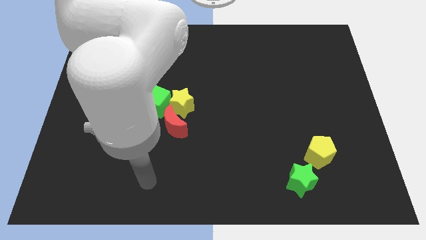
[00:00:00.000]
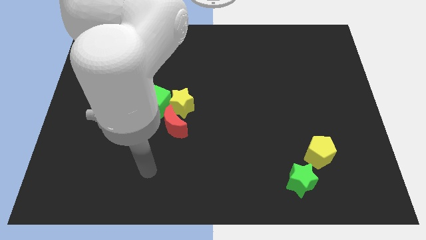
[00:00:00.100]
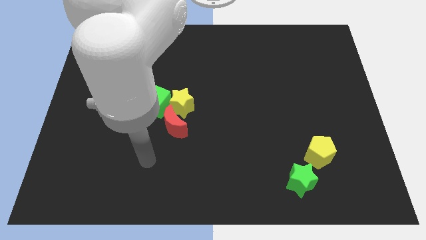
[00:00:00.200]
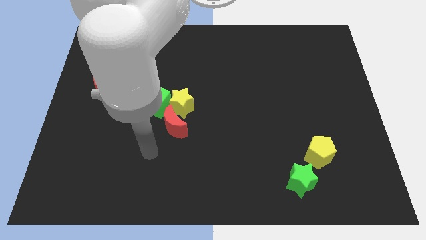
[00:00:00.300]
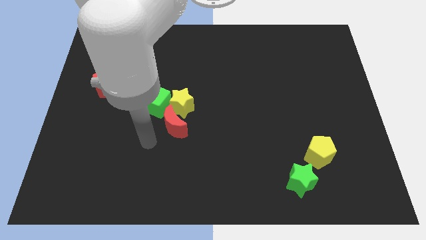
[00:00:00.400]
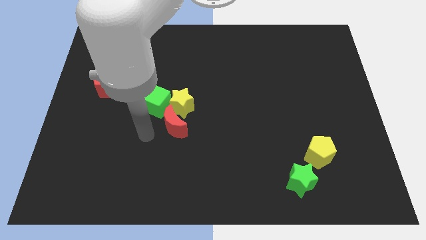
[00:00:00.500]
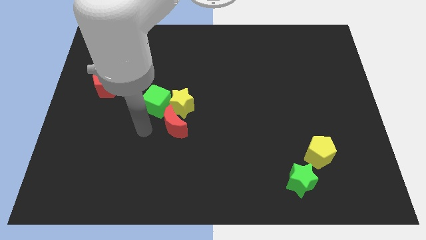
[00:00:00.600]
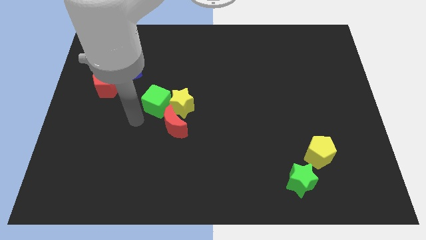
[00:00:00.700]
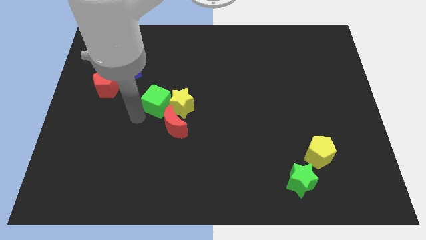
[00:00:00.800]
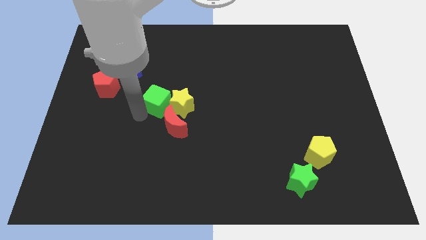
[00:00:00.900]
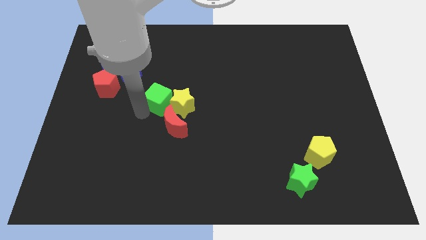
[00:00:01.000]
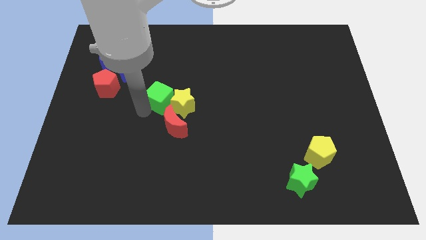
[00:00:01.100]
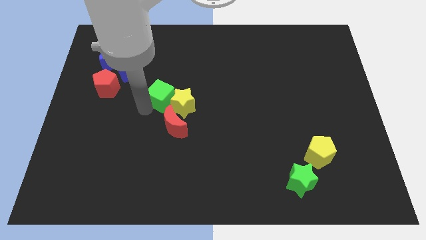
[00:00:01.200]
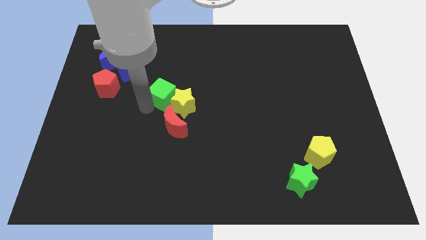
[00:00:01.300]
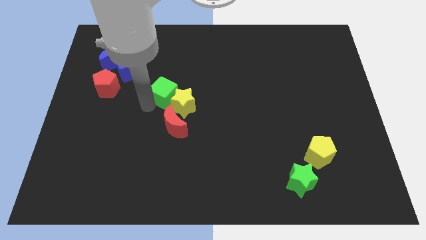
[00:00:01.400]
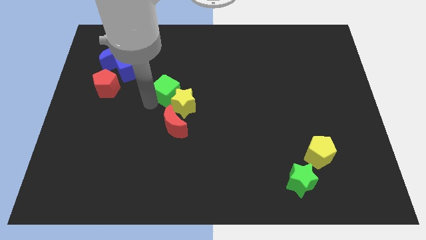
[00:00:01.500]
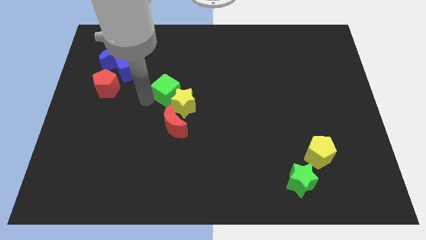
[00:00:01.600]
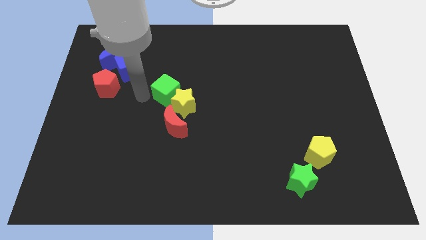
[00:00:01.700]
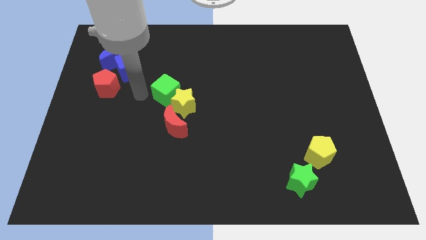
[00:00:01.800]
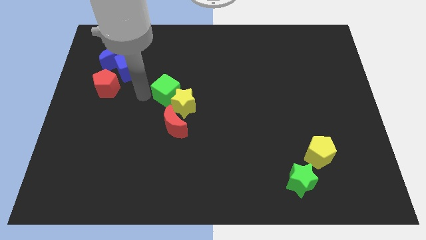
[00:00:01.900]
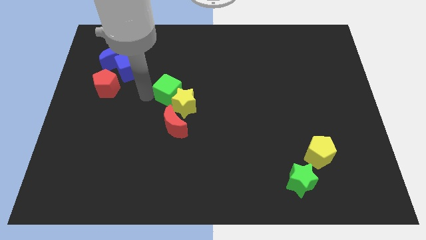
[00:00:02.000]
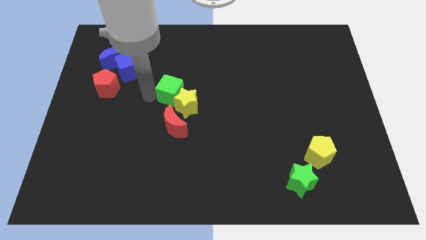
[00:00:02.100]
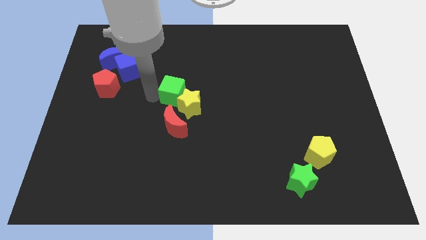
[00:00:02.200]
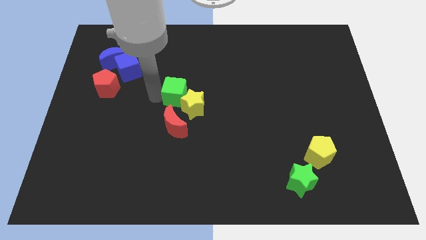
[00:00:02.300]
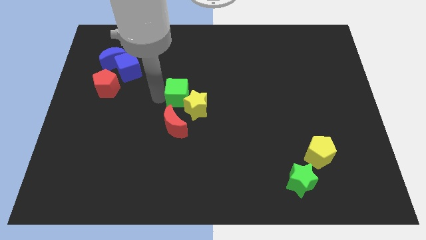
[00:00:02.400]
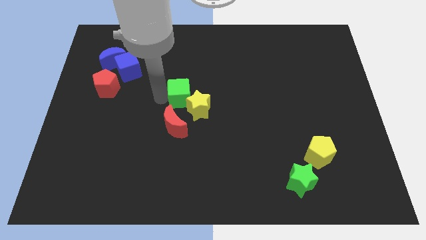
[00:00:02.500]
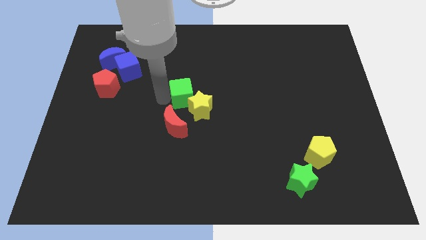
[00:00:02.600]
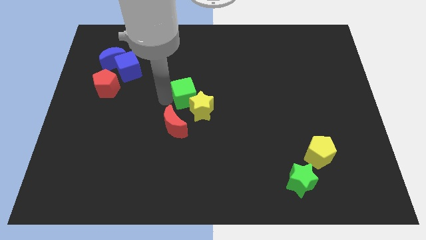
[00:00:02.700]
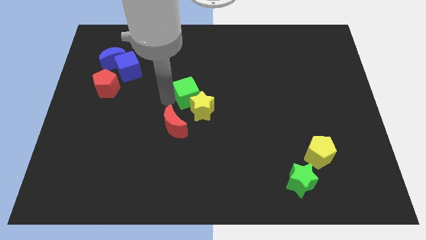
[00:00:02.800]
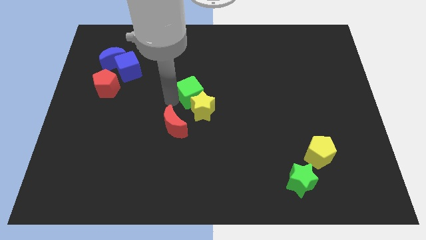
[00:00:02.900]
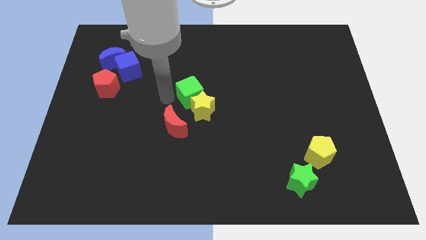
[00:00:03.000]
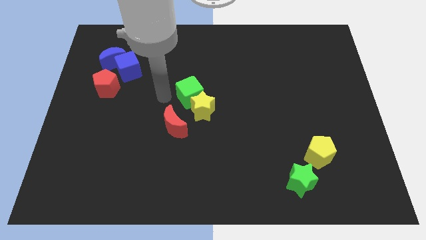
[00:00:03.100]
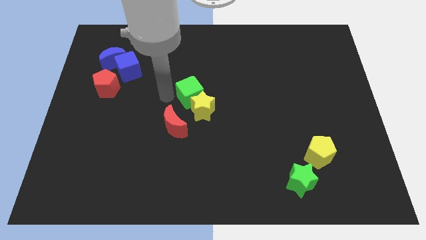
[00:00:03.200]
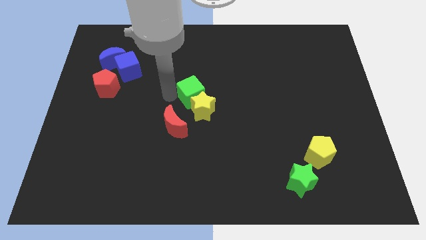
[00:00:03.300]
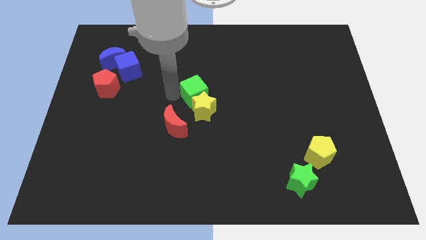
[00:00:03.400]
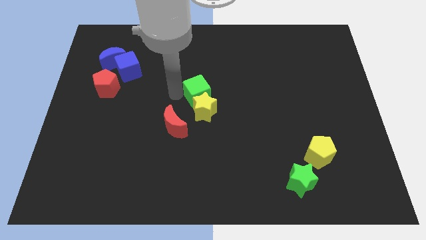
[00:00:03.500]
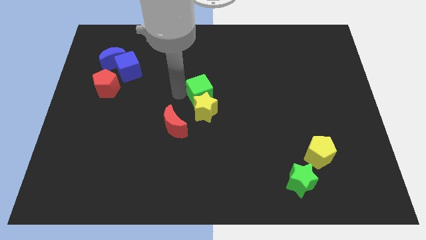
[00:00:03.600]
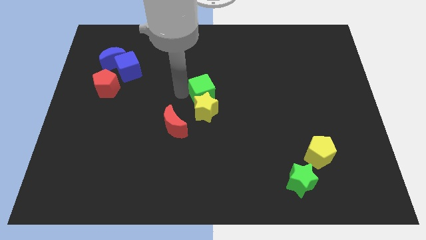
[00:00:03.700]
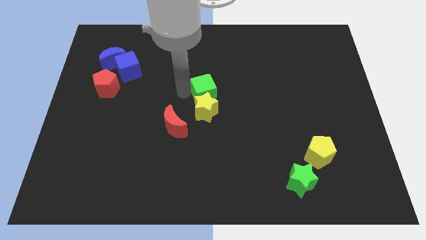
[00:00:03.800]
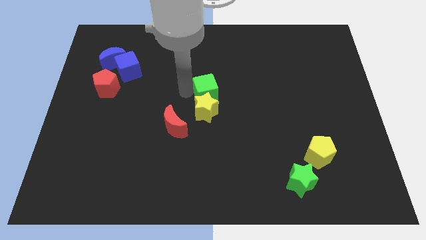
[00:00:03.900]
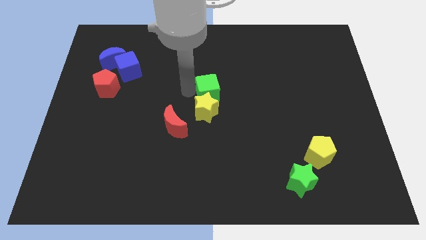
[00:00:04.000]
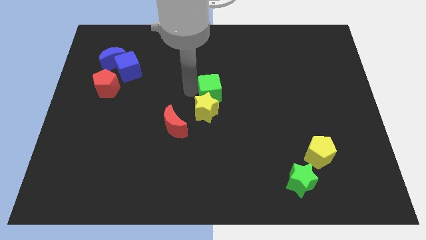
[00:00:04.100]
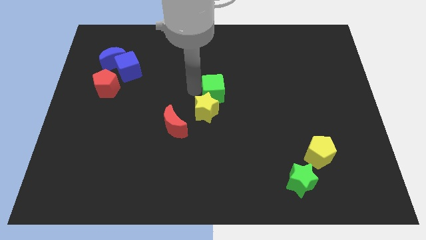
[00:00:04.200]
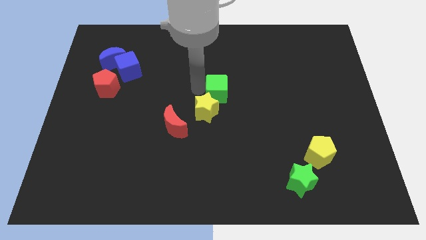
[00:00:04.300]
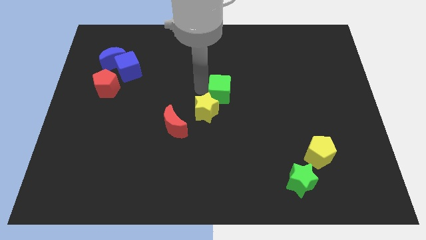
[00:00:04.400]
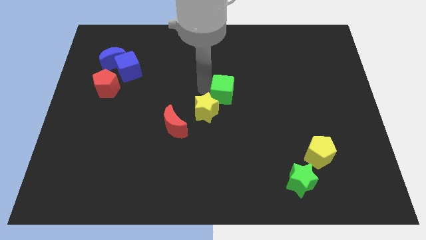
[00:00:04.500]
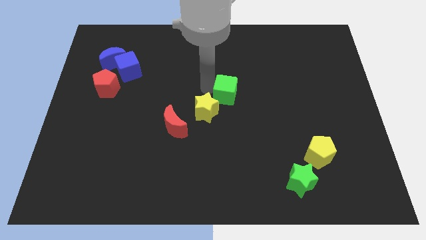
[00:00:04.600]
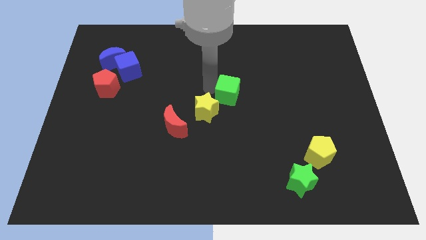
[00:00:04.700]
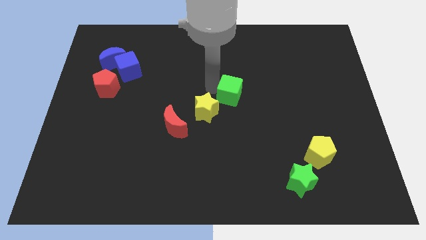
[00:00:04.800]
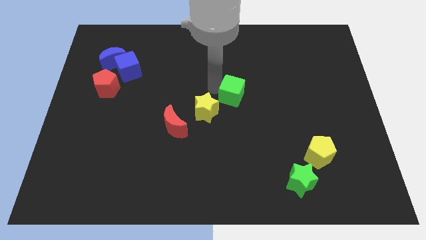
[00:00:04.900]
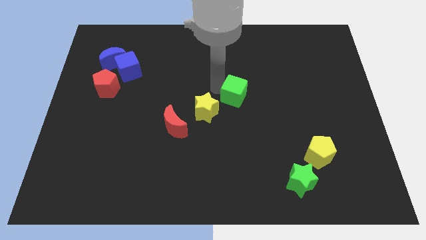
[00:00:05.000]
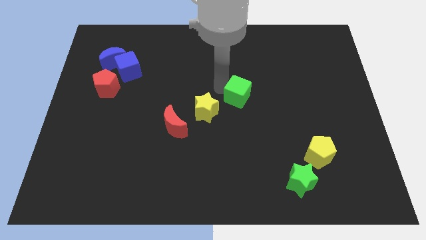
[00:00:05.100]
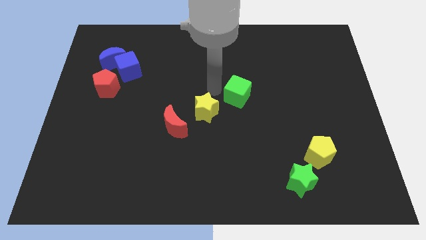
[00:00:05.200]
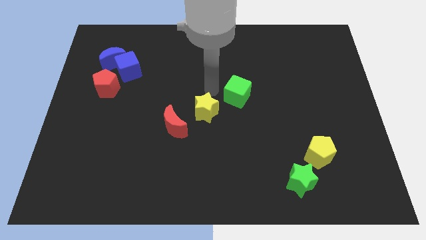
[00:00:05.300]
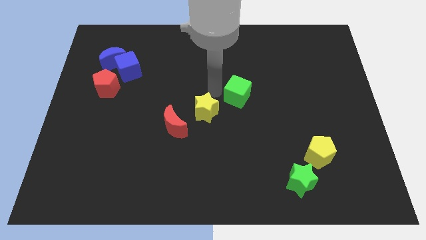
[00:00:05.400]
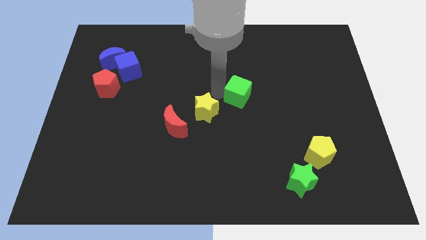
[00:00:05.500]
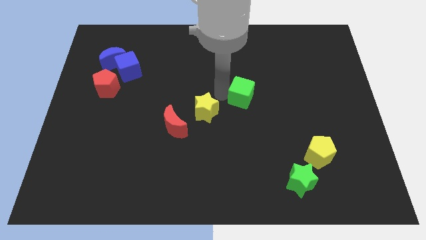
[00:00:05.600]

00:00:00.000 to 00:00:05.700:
push the green cube to the right

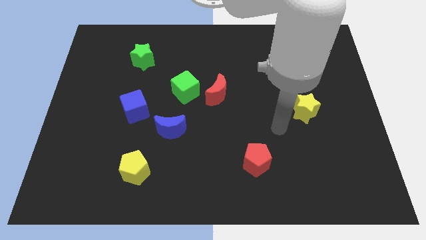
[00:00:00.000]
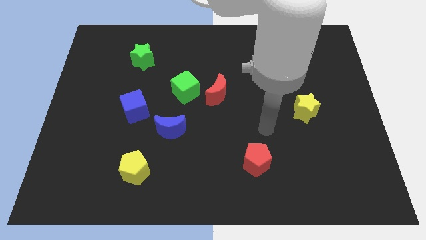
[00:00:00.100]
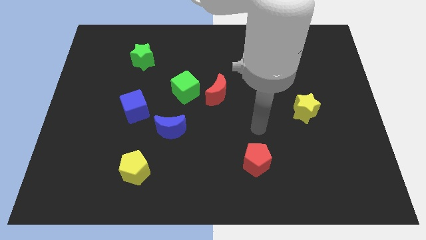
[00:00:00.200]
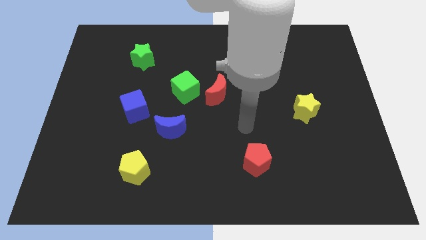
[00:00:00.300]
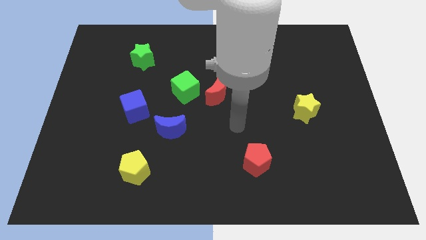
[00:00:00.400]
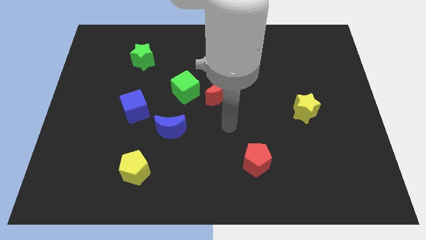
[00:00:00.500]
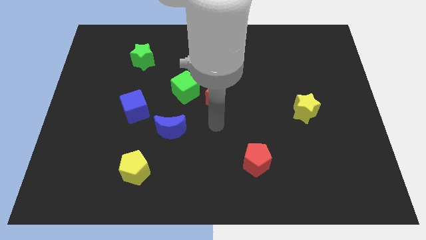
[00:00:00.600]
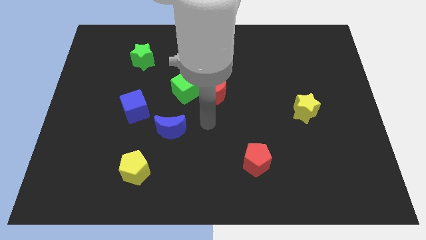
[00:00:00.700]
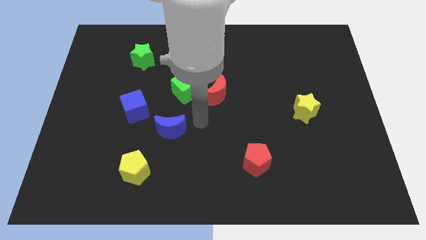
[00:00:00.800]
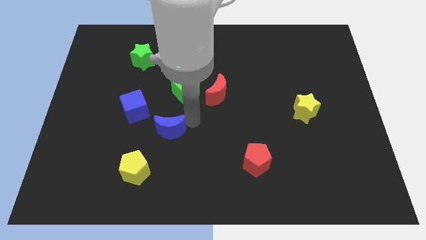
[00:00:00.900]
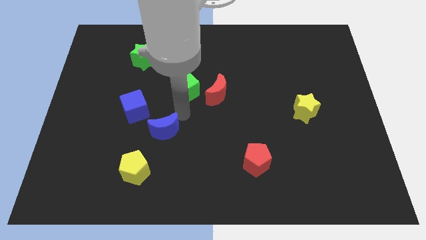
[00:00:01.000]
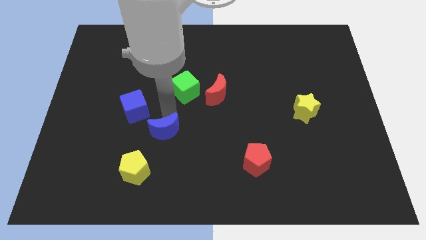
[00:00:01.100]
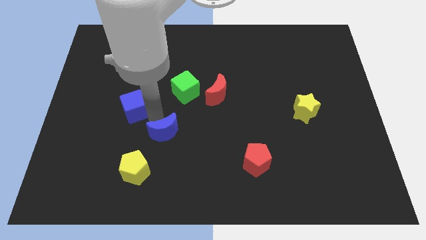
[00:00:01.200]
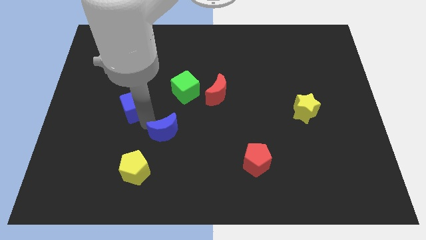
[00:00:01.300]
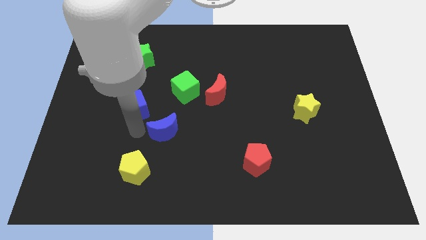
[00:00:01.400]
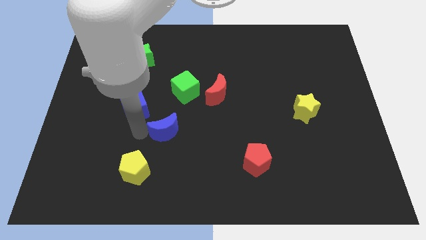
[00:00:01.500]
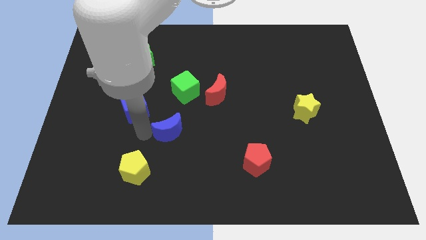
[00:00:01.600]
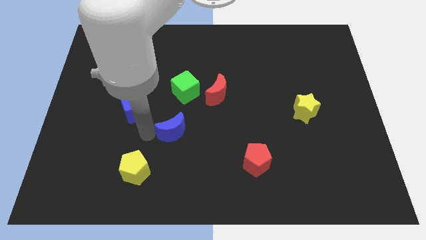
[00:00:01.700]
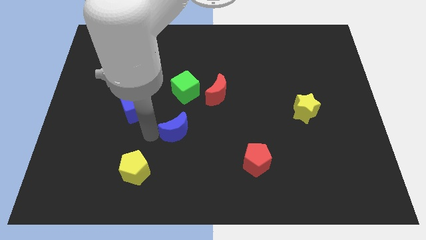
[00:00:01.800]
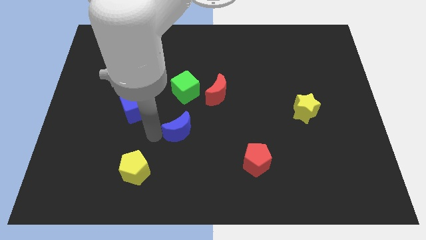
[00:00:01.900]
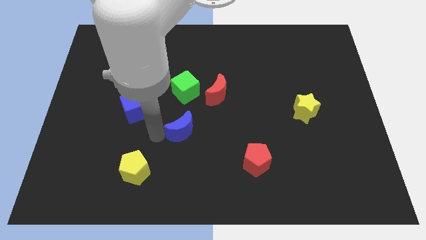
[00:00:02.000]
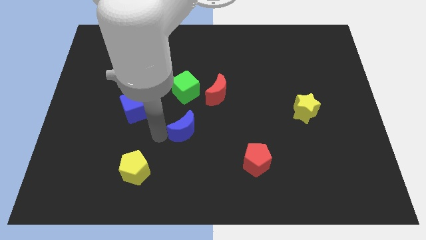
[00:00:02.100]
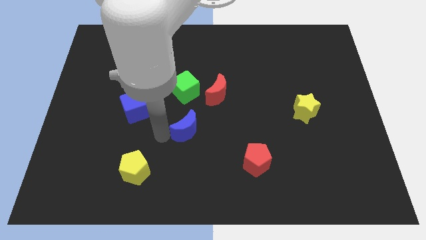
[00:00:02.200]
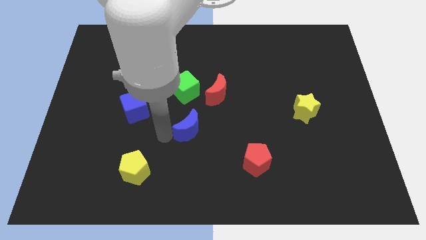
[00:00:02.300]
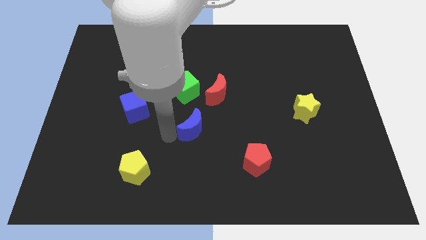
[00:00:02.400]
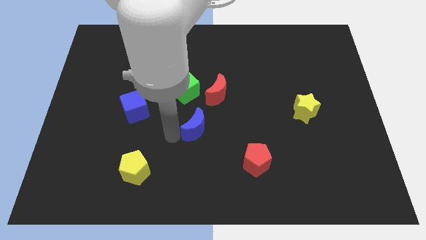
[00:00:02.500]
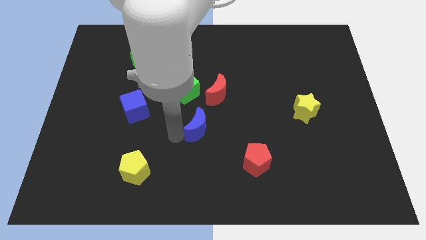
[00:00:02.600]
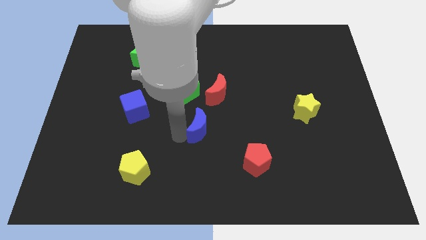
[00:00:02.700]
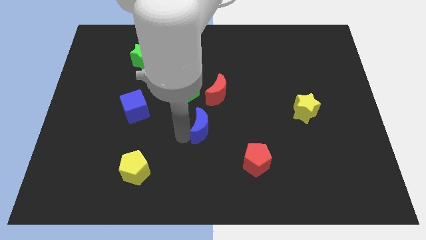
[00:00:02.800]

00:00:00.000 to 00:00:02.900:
slide the blue moon a bit right
